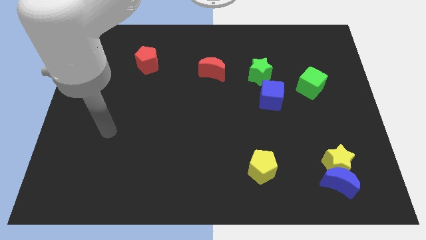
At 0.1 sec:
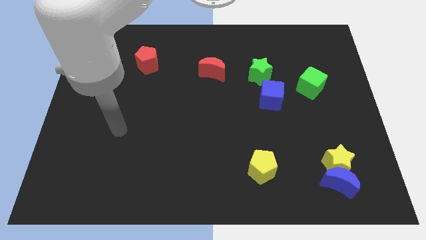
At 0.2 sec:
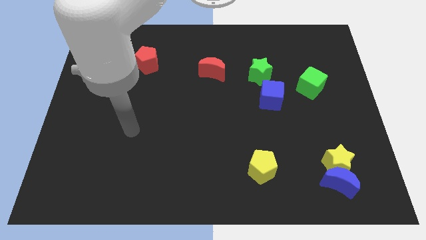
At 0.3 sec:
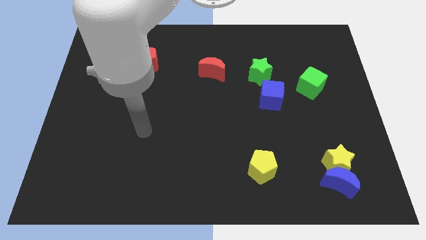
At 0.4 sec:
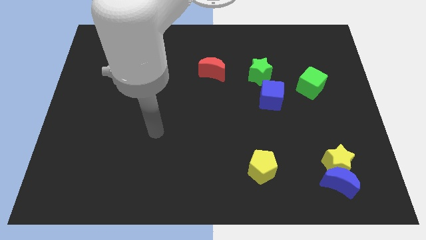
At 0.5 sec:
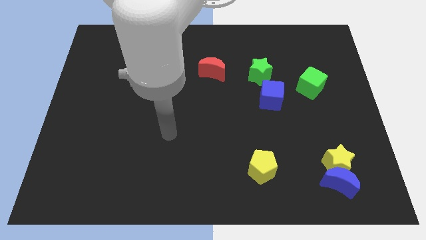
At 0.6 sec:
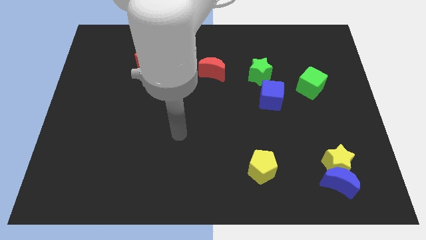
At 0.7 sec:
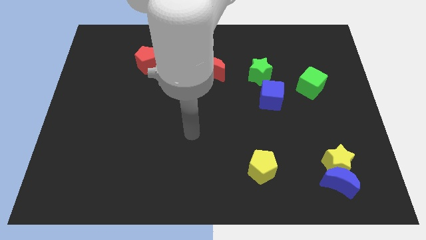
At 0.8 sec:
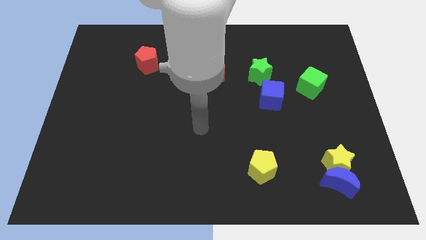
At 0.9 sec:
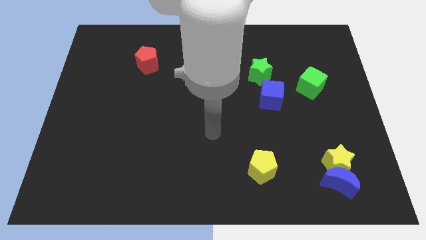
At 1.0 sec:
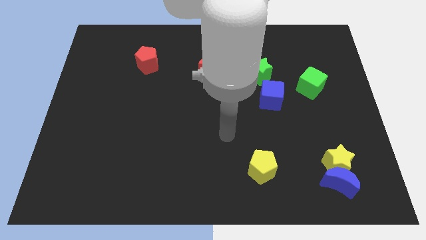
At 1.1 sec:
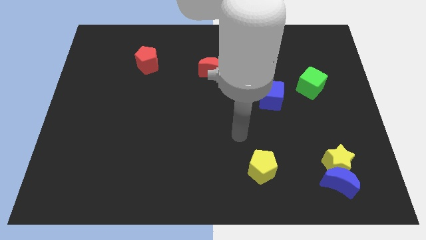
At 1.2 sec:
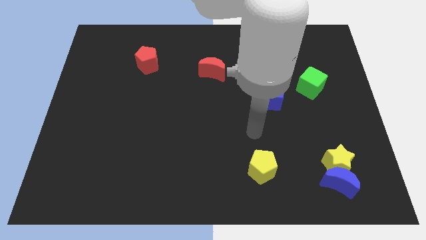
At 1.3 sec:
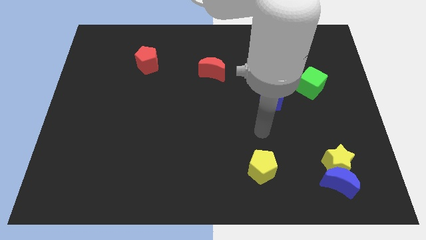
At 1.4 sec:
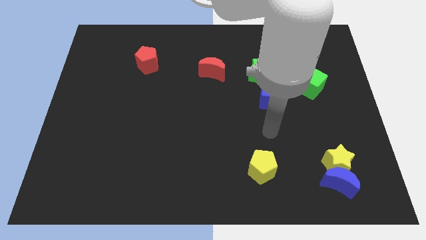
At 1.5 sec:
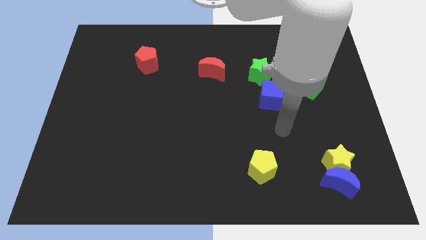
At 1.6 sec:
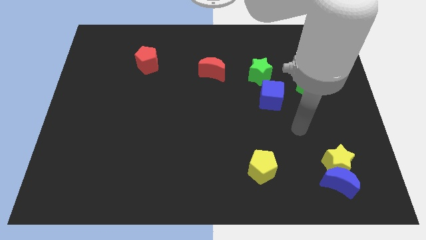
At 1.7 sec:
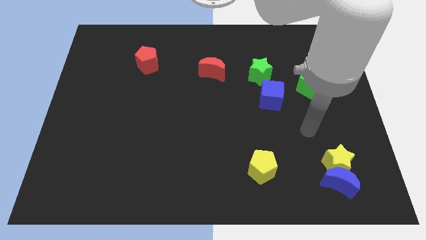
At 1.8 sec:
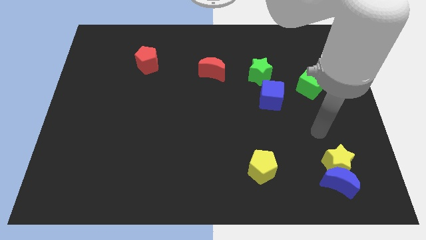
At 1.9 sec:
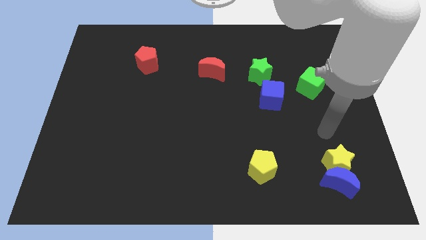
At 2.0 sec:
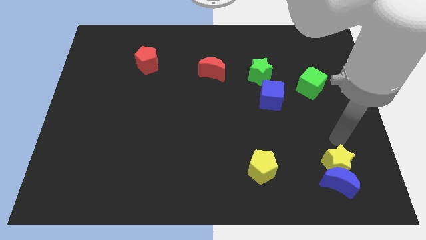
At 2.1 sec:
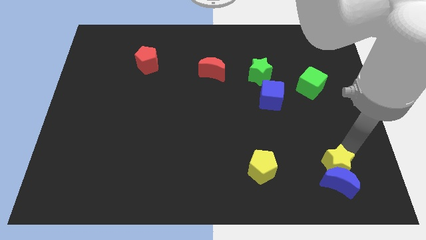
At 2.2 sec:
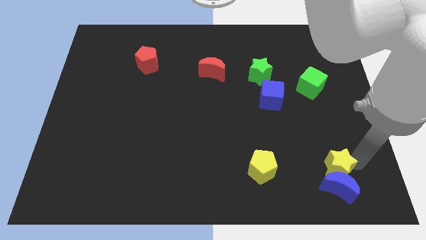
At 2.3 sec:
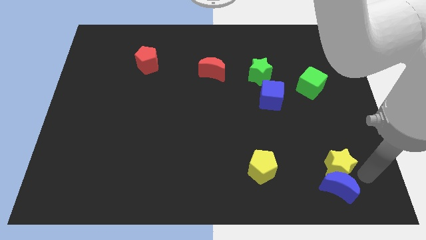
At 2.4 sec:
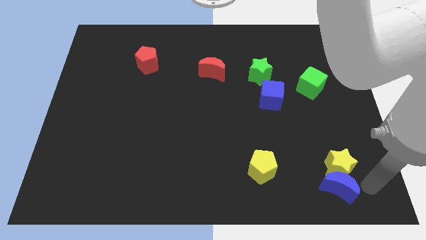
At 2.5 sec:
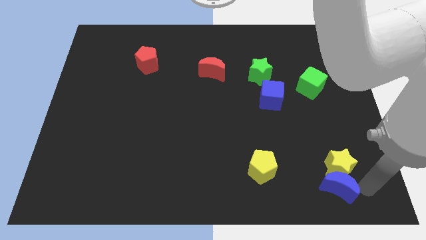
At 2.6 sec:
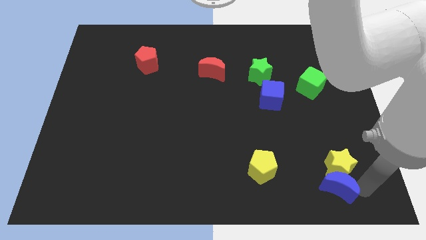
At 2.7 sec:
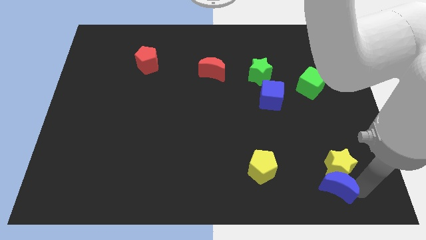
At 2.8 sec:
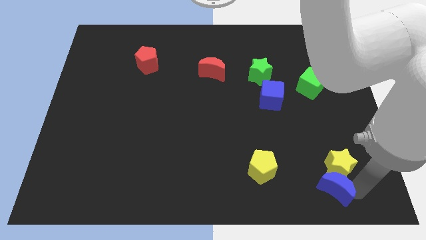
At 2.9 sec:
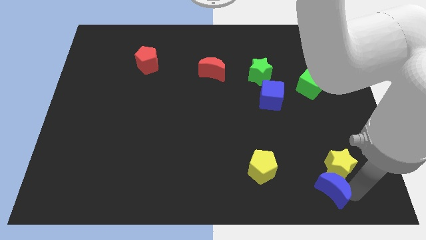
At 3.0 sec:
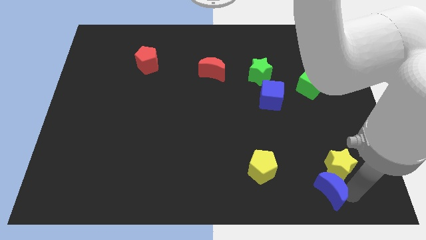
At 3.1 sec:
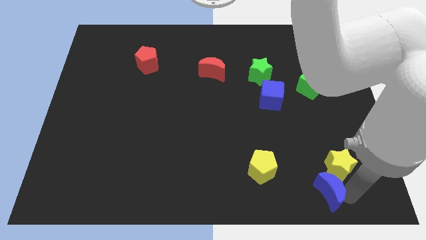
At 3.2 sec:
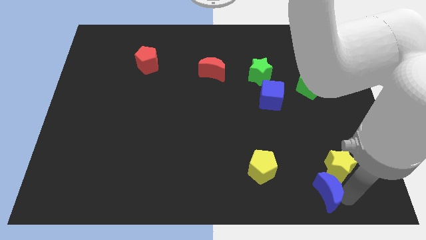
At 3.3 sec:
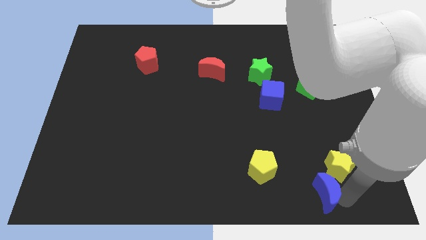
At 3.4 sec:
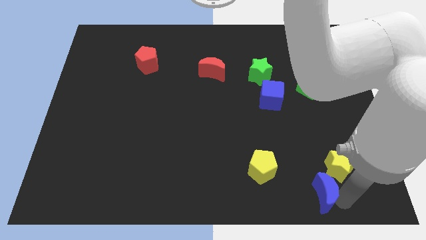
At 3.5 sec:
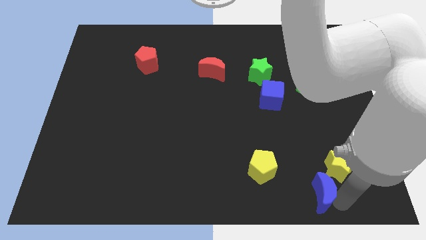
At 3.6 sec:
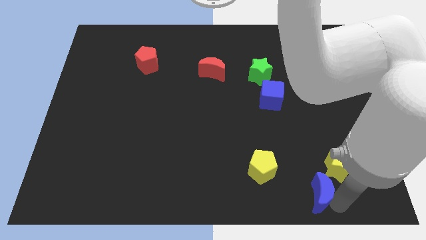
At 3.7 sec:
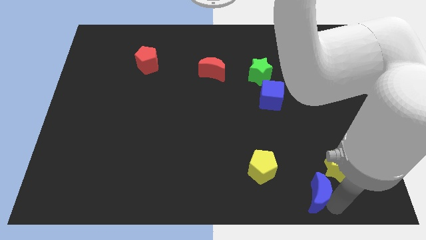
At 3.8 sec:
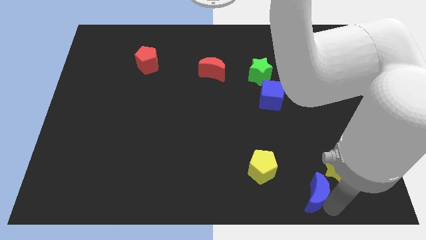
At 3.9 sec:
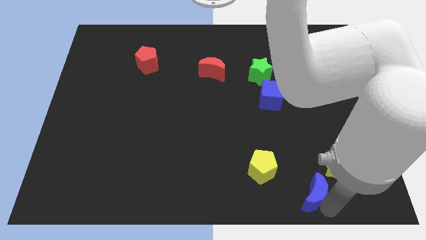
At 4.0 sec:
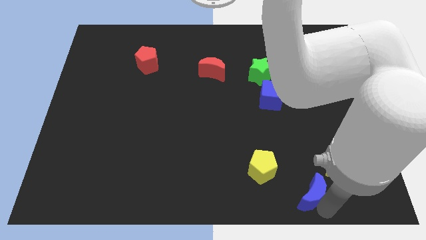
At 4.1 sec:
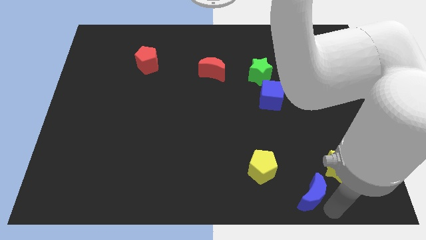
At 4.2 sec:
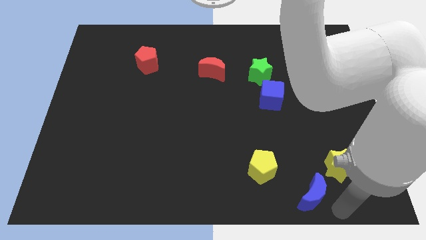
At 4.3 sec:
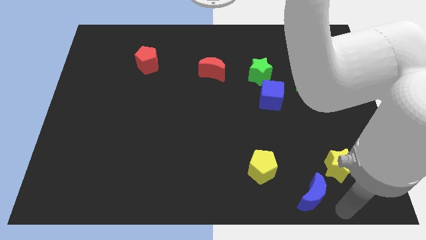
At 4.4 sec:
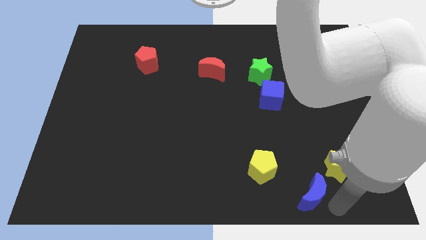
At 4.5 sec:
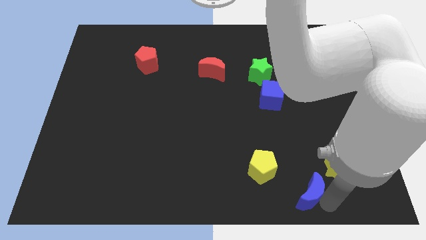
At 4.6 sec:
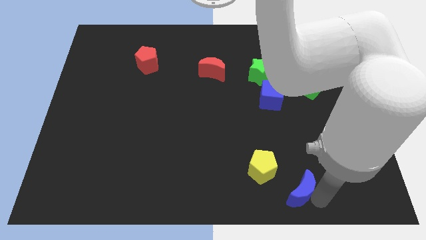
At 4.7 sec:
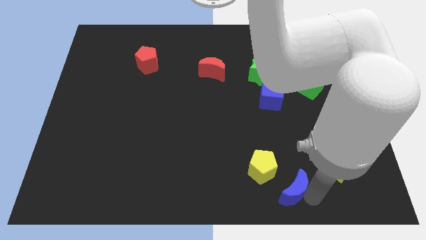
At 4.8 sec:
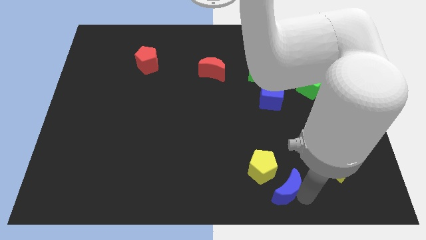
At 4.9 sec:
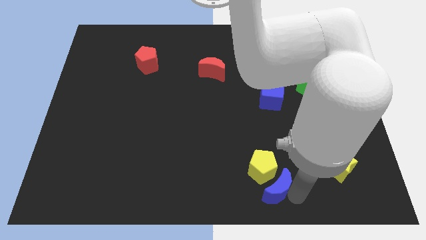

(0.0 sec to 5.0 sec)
push the blue moon towards the yellow pentagon

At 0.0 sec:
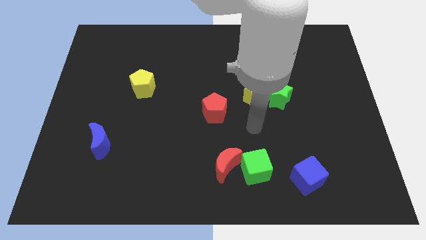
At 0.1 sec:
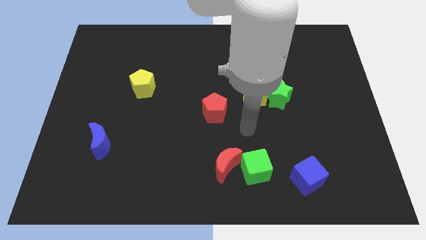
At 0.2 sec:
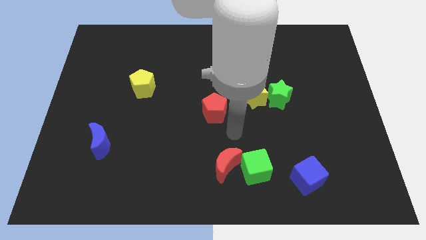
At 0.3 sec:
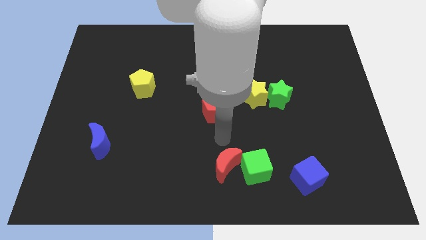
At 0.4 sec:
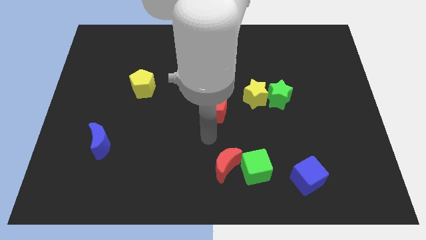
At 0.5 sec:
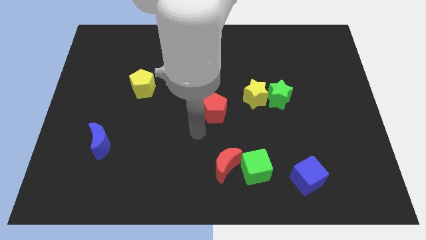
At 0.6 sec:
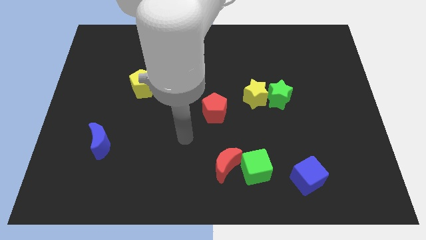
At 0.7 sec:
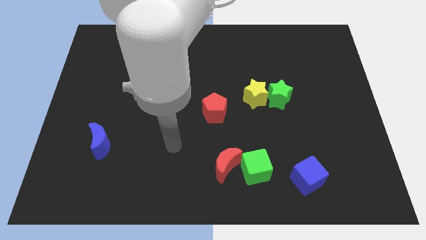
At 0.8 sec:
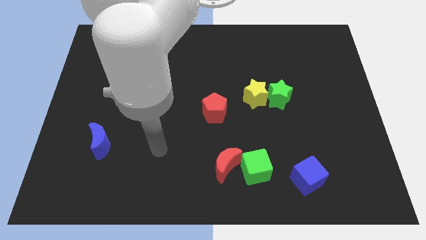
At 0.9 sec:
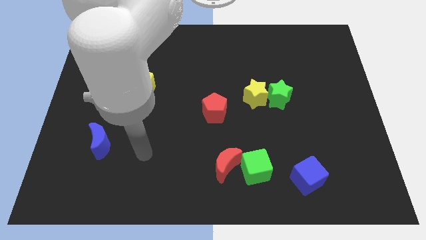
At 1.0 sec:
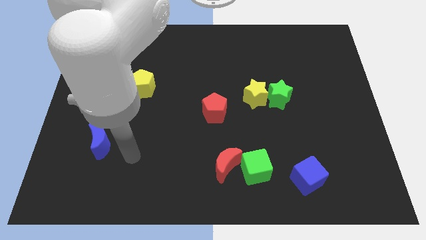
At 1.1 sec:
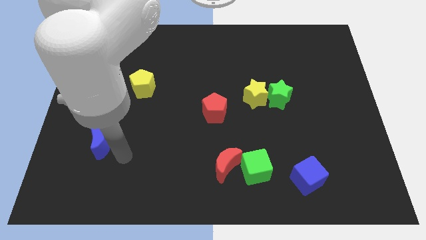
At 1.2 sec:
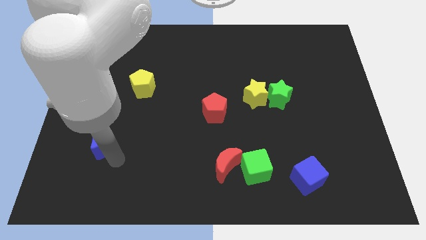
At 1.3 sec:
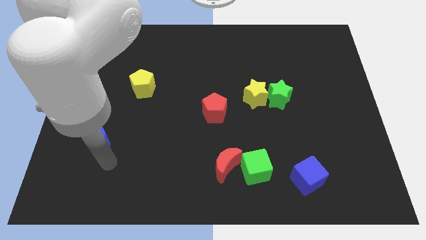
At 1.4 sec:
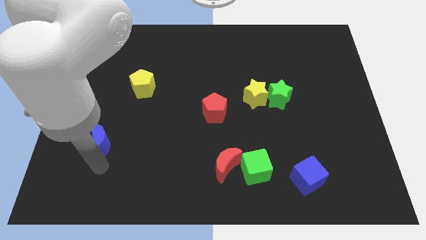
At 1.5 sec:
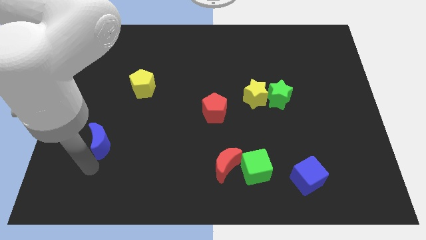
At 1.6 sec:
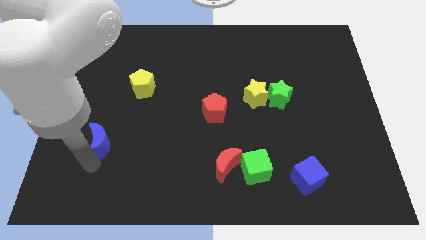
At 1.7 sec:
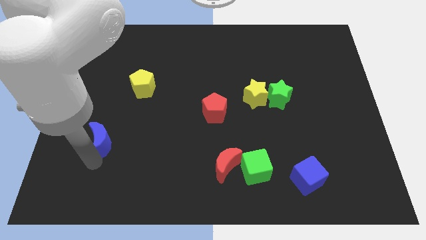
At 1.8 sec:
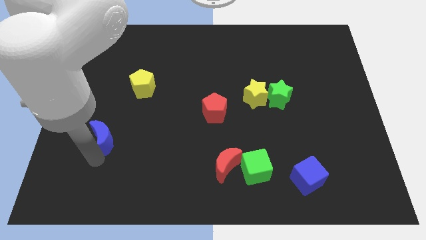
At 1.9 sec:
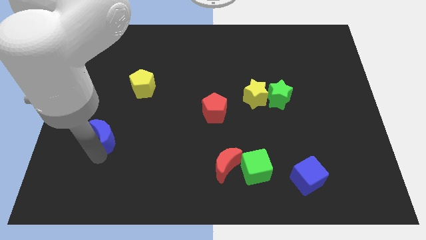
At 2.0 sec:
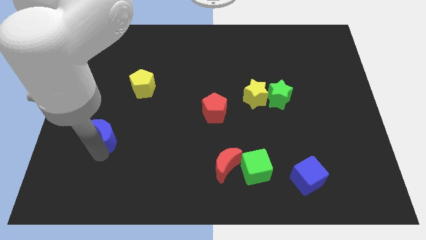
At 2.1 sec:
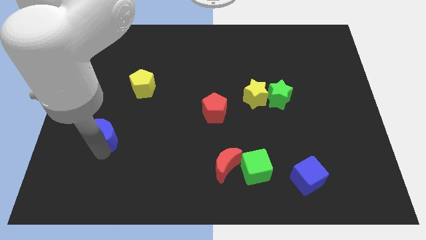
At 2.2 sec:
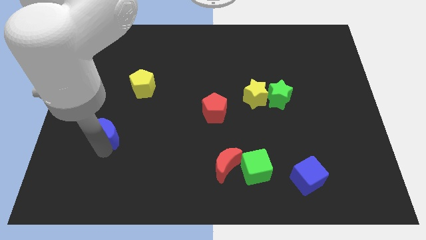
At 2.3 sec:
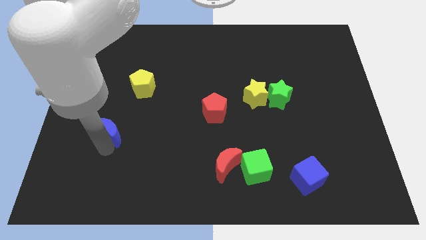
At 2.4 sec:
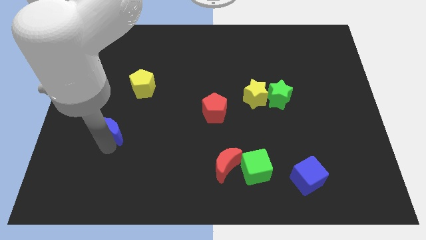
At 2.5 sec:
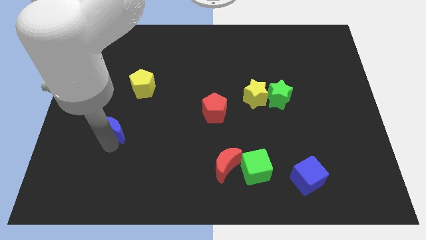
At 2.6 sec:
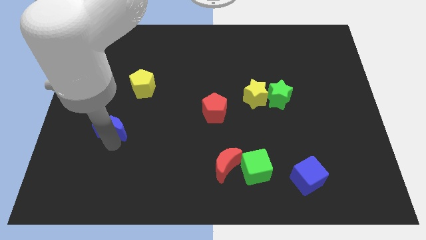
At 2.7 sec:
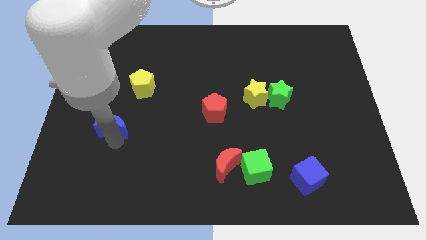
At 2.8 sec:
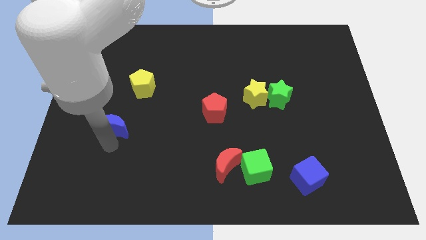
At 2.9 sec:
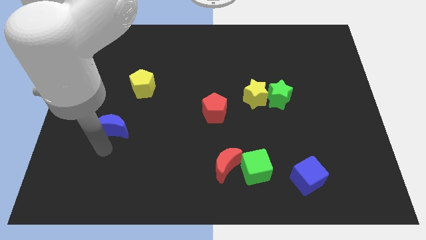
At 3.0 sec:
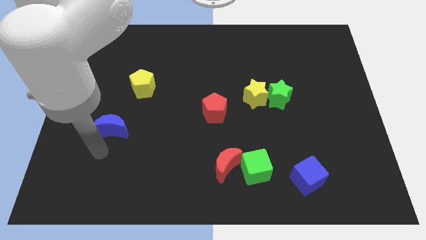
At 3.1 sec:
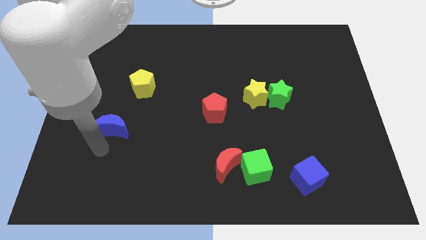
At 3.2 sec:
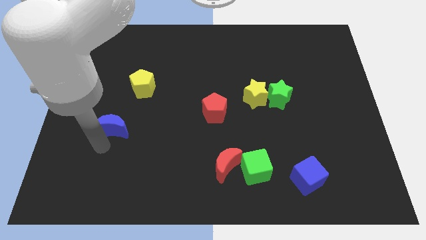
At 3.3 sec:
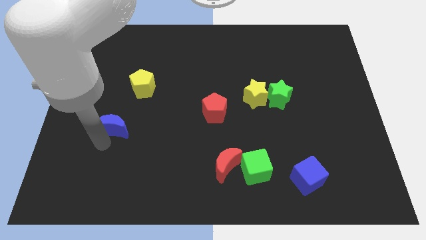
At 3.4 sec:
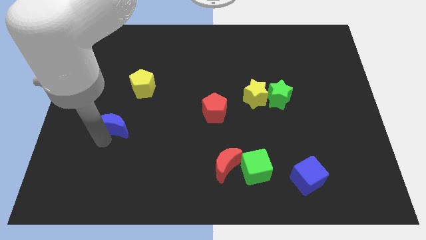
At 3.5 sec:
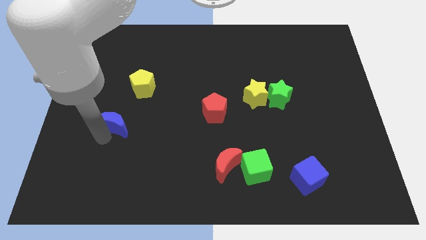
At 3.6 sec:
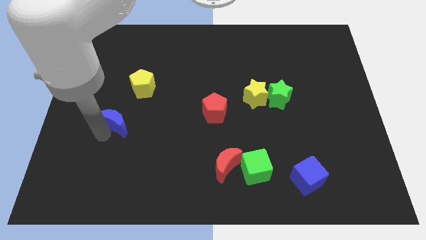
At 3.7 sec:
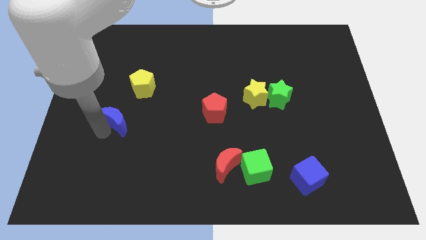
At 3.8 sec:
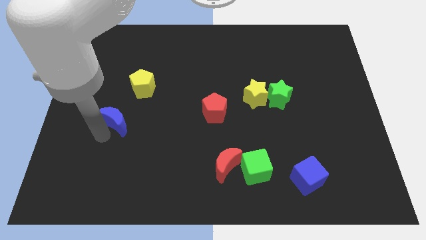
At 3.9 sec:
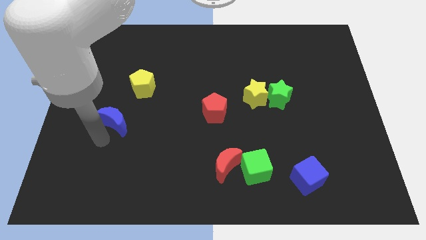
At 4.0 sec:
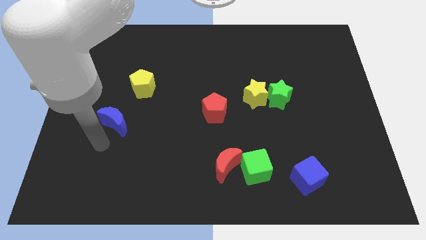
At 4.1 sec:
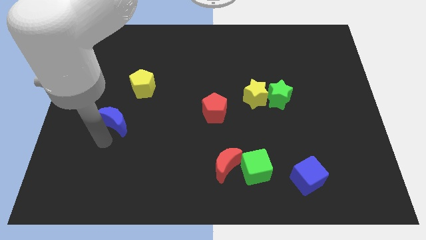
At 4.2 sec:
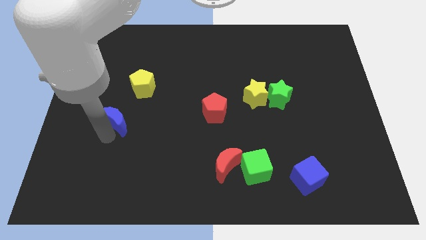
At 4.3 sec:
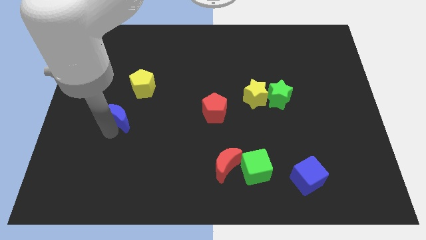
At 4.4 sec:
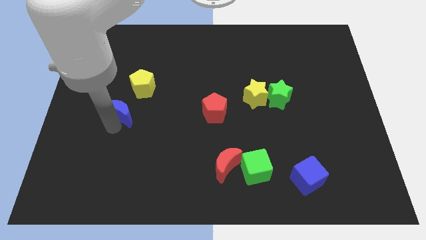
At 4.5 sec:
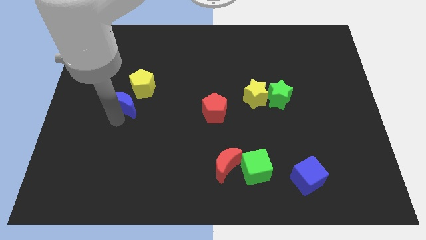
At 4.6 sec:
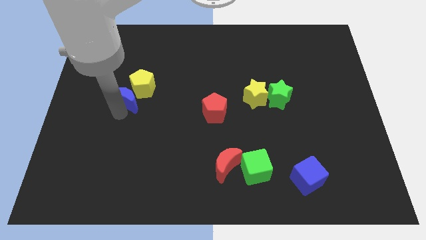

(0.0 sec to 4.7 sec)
put the blue moon to the yellow pentagon
